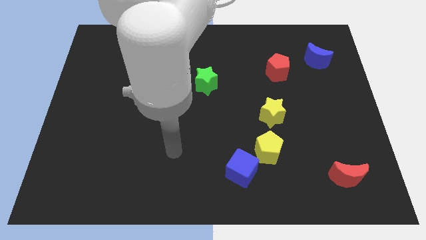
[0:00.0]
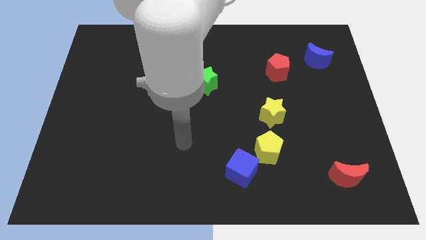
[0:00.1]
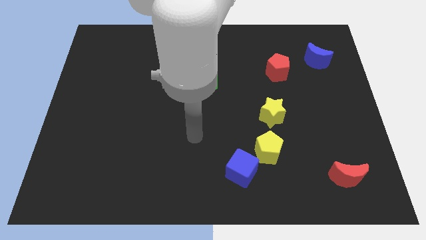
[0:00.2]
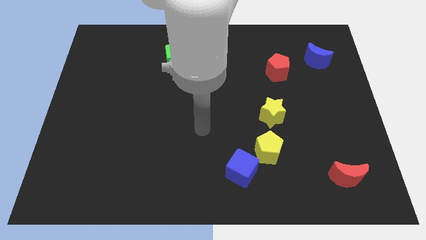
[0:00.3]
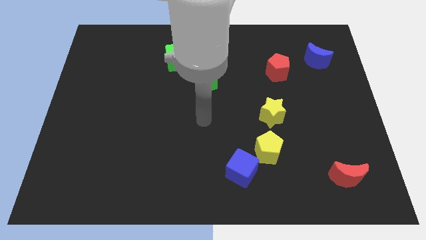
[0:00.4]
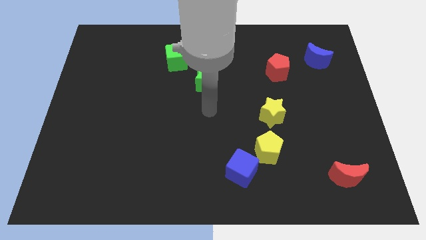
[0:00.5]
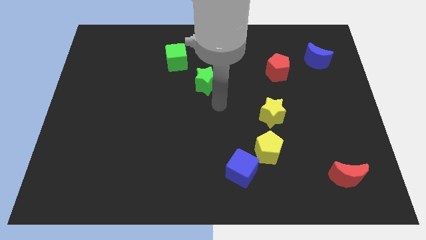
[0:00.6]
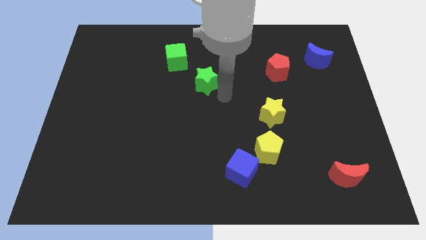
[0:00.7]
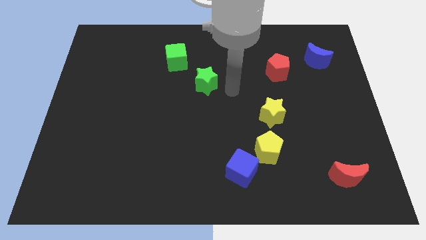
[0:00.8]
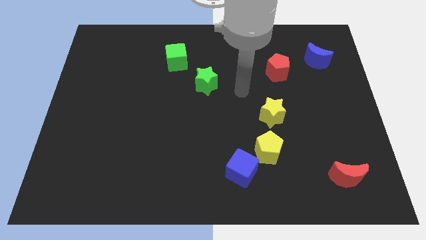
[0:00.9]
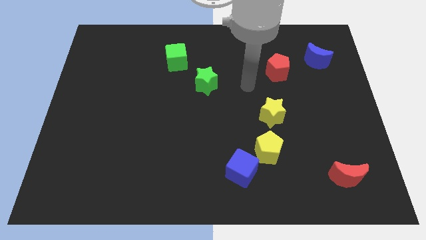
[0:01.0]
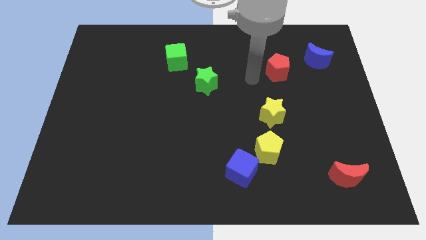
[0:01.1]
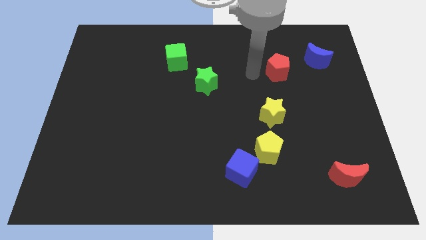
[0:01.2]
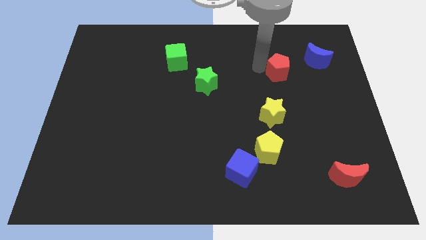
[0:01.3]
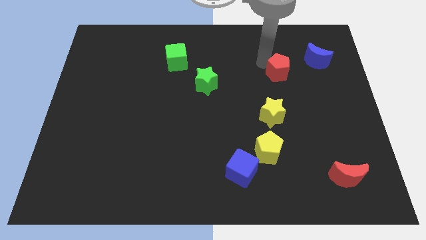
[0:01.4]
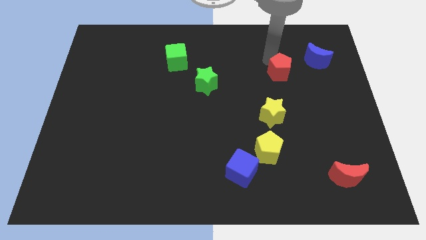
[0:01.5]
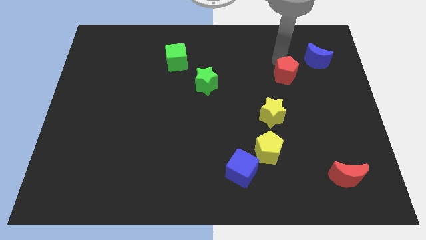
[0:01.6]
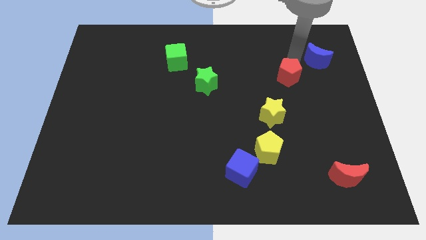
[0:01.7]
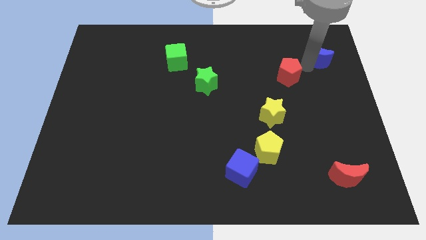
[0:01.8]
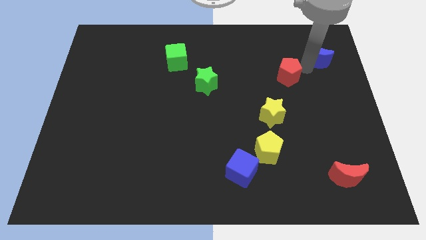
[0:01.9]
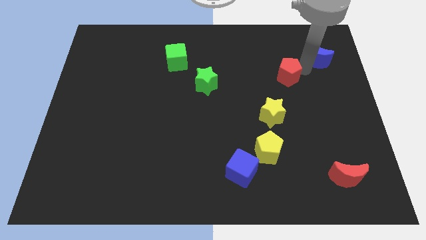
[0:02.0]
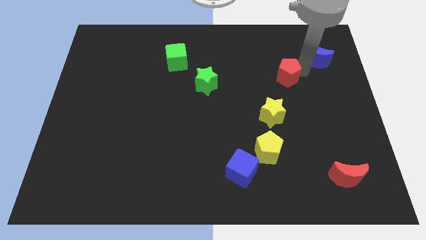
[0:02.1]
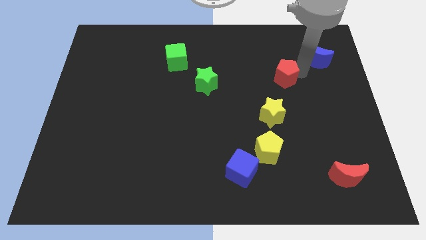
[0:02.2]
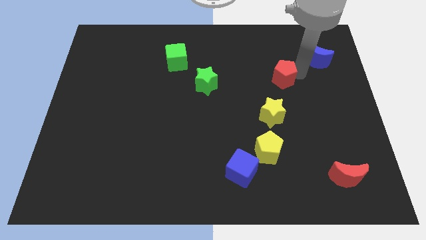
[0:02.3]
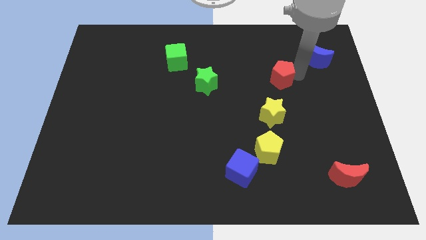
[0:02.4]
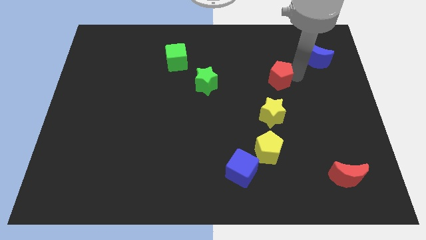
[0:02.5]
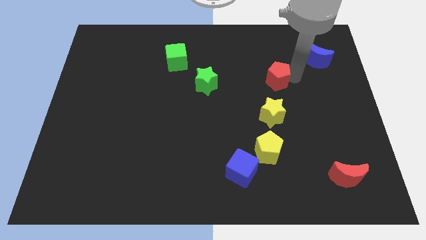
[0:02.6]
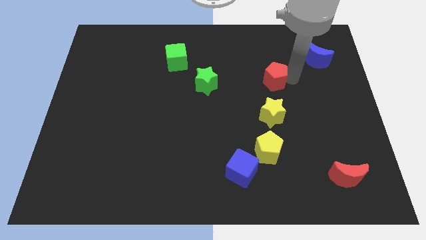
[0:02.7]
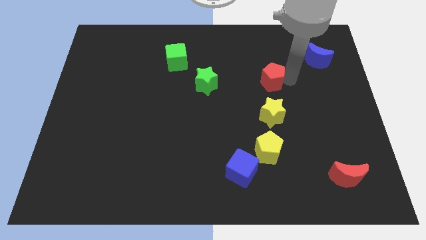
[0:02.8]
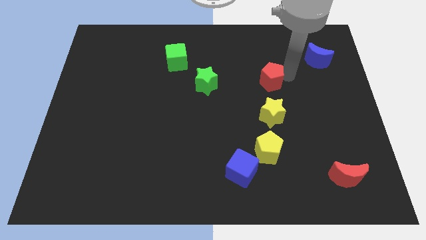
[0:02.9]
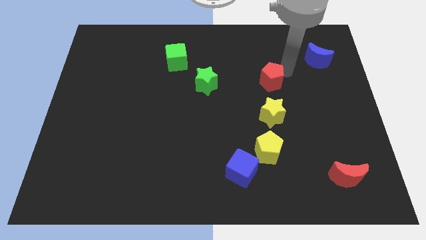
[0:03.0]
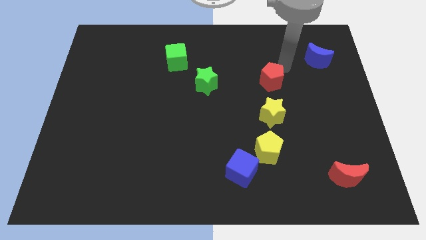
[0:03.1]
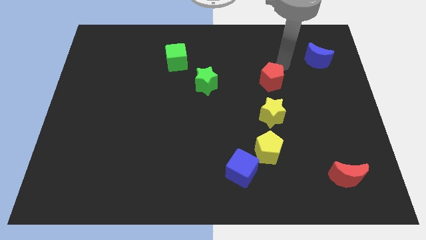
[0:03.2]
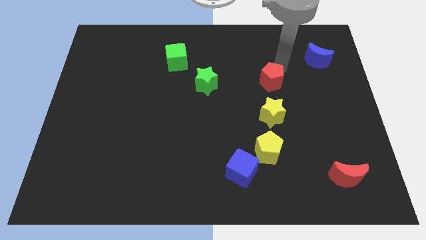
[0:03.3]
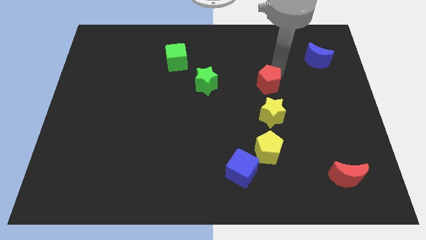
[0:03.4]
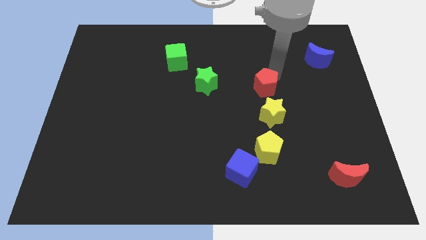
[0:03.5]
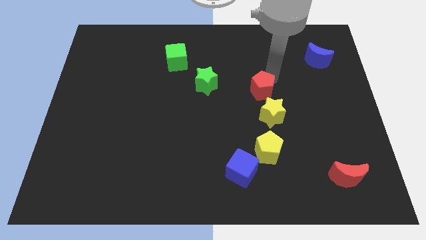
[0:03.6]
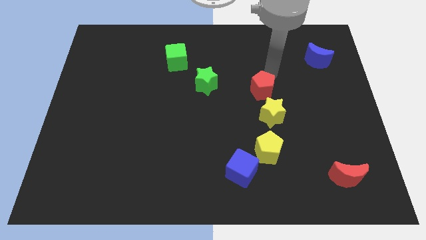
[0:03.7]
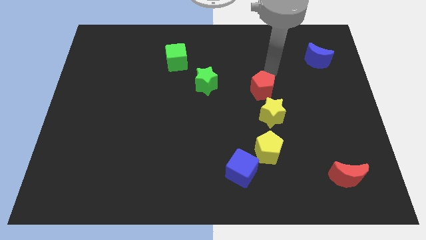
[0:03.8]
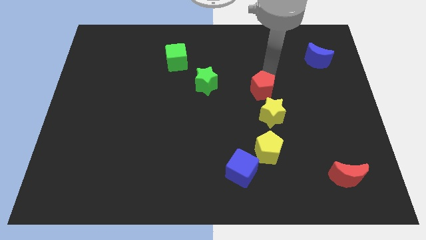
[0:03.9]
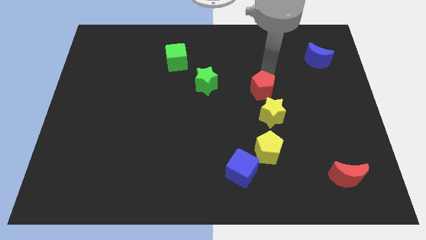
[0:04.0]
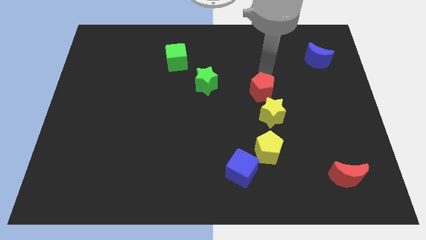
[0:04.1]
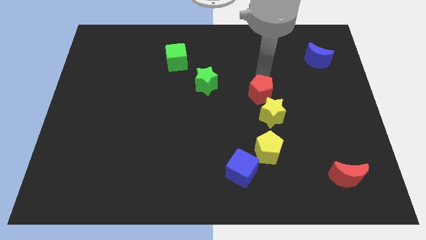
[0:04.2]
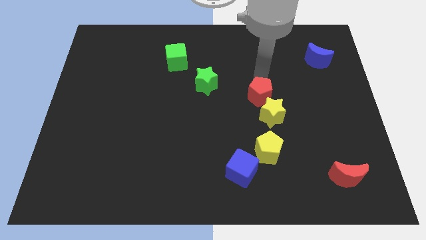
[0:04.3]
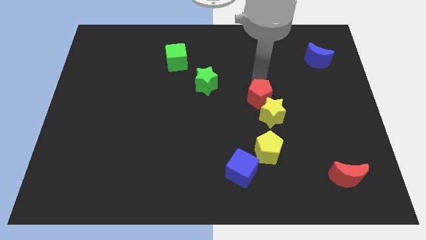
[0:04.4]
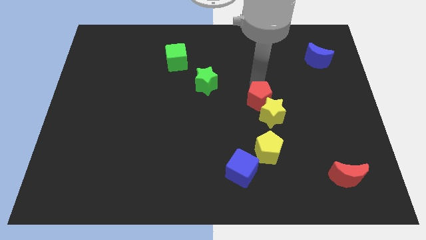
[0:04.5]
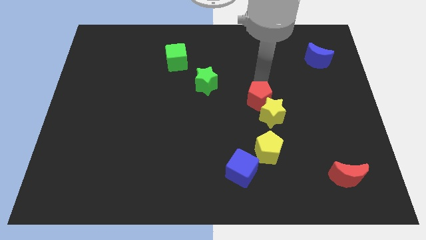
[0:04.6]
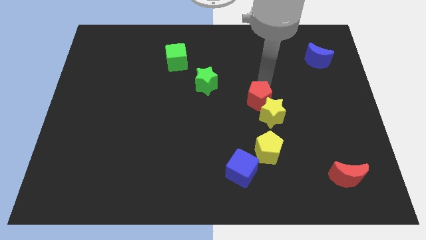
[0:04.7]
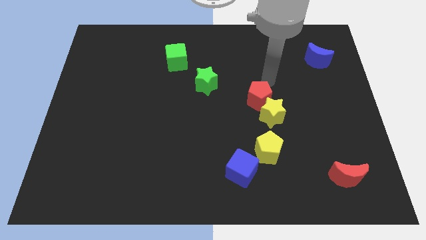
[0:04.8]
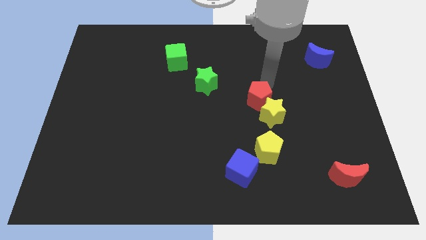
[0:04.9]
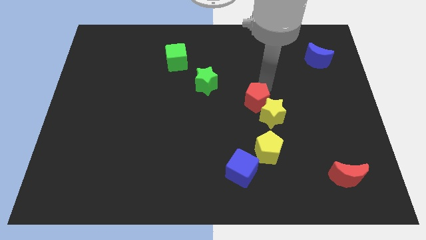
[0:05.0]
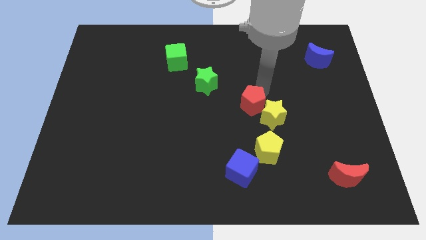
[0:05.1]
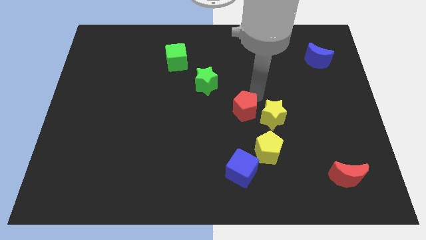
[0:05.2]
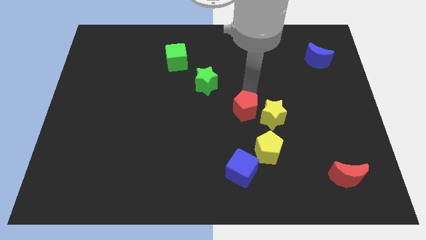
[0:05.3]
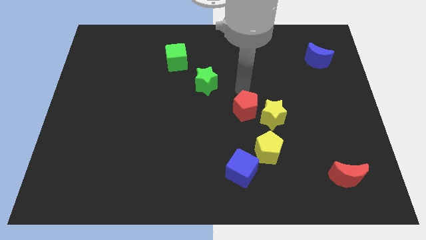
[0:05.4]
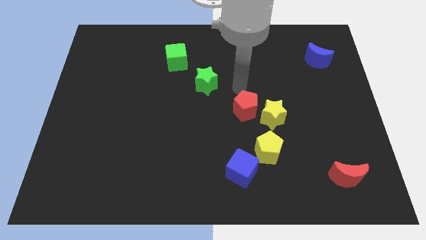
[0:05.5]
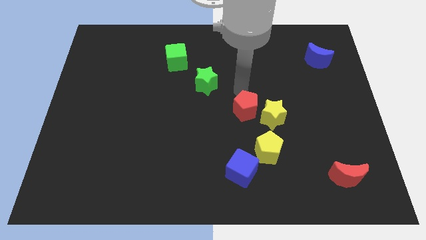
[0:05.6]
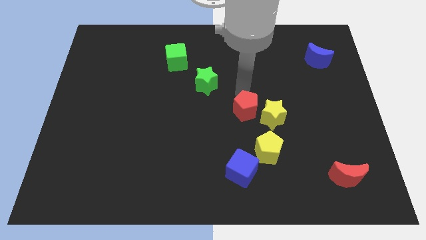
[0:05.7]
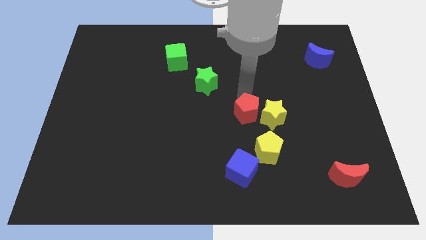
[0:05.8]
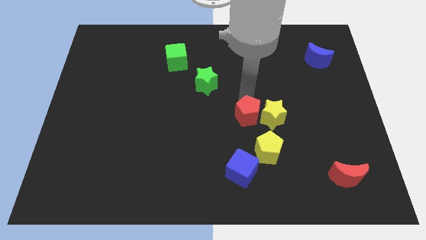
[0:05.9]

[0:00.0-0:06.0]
slide the red pentagon to the bottom left of the yellow star
